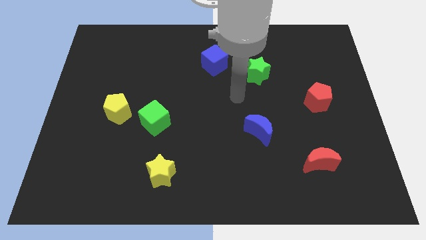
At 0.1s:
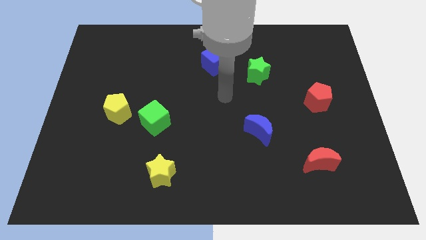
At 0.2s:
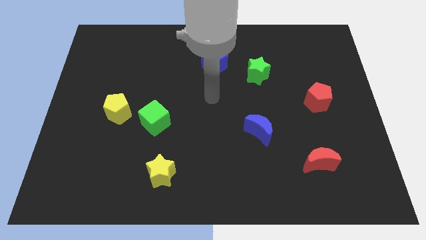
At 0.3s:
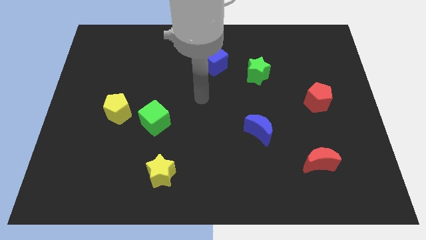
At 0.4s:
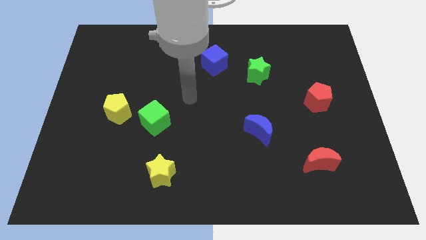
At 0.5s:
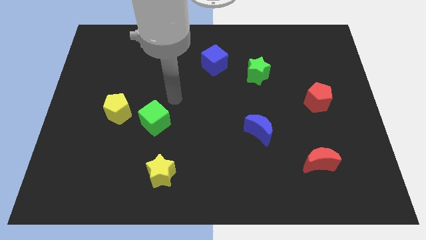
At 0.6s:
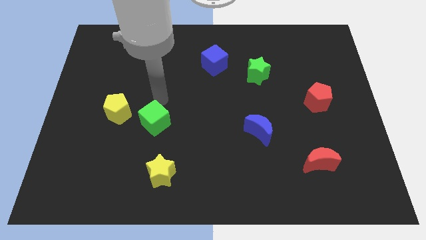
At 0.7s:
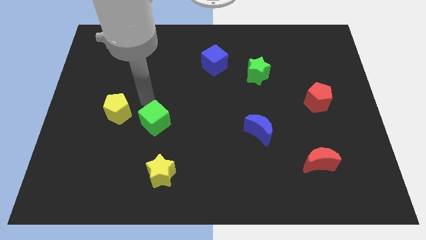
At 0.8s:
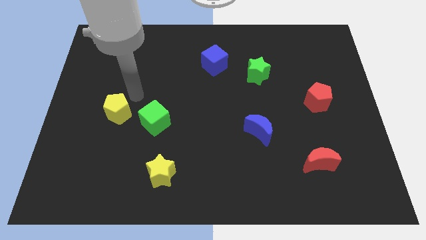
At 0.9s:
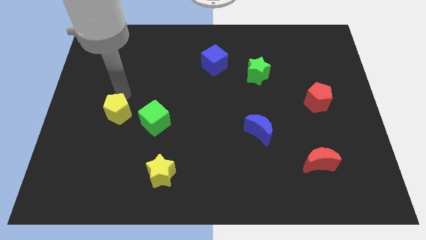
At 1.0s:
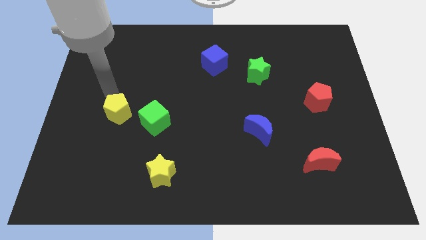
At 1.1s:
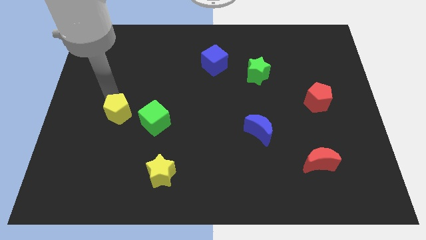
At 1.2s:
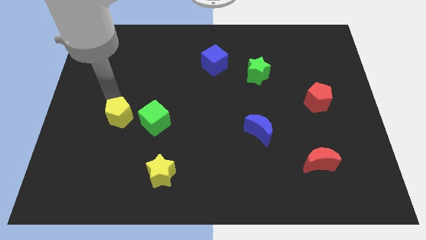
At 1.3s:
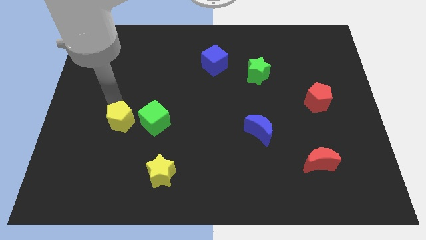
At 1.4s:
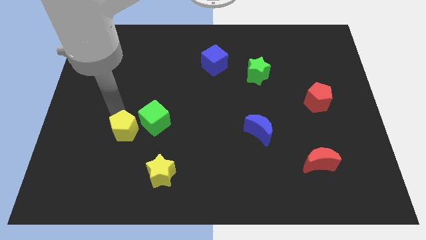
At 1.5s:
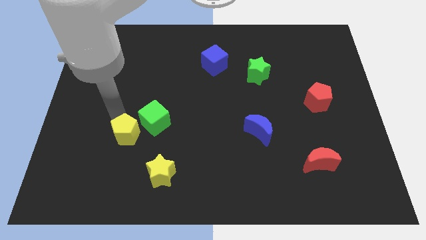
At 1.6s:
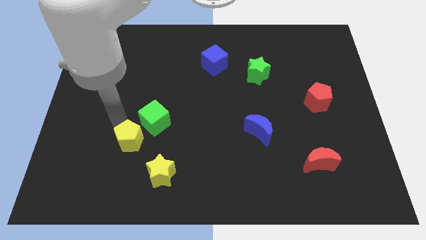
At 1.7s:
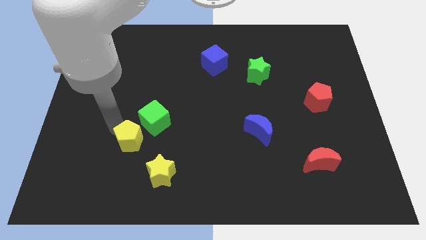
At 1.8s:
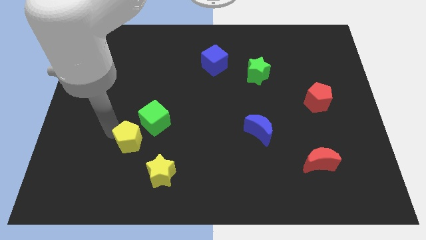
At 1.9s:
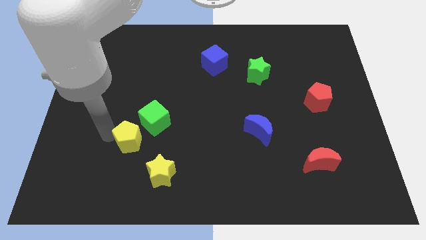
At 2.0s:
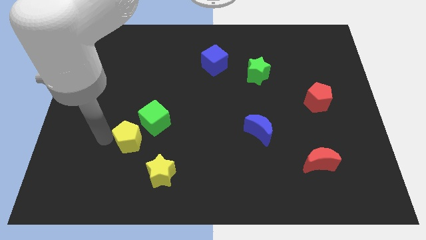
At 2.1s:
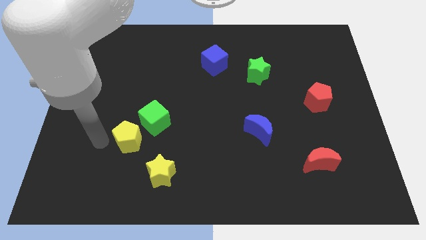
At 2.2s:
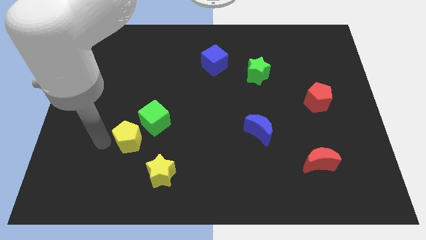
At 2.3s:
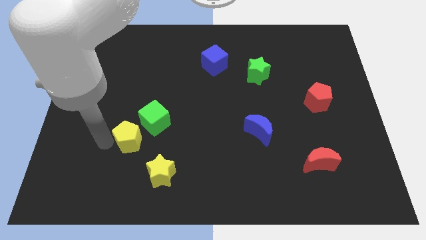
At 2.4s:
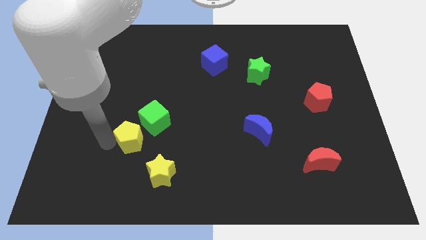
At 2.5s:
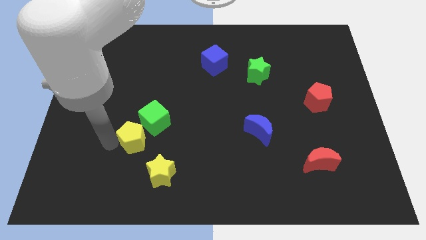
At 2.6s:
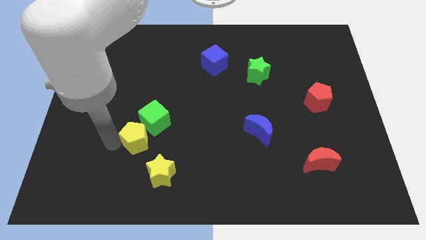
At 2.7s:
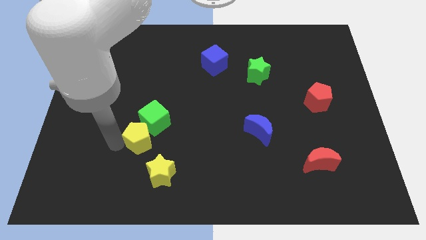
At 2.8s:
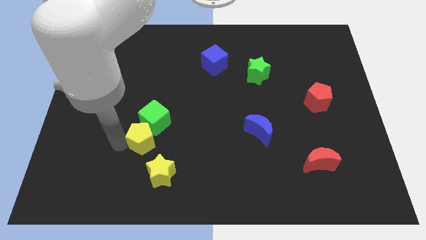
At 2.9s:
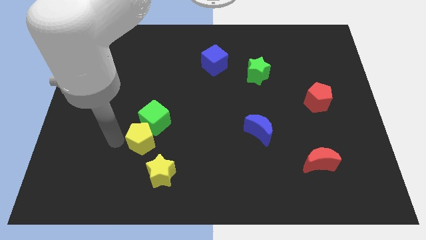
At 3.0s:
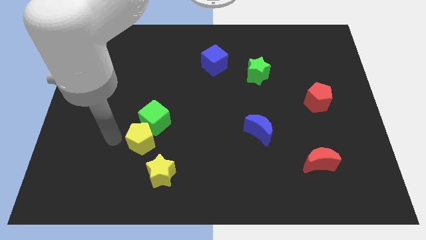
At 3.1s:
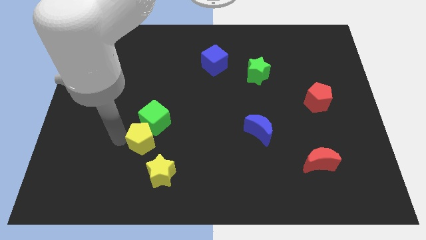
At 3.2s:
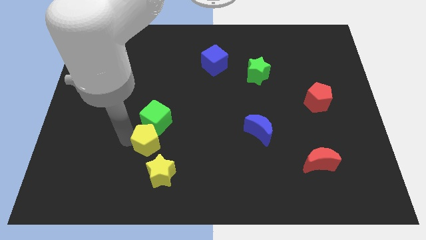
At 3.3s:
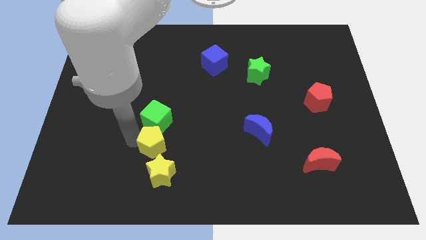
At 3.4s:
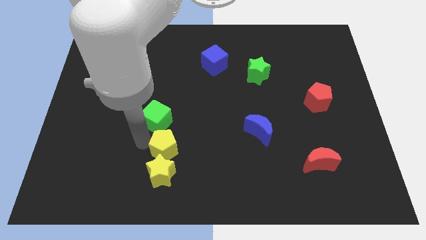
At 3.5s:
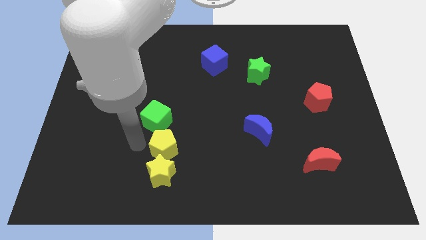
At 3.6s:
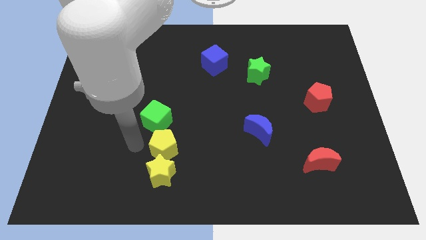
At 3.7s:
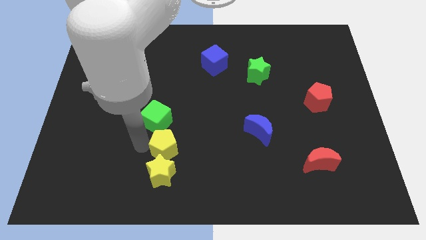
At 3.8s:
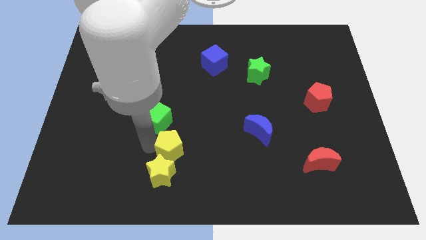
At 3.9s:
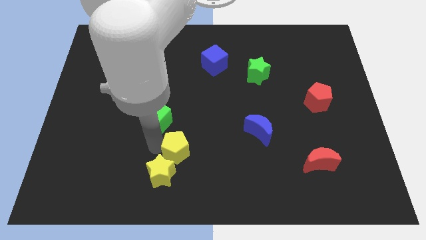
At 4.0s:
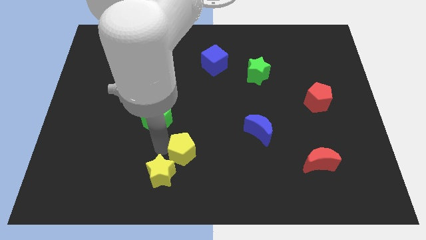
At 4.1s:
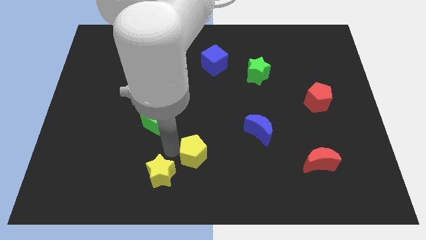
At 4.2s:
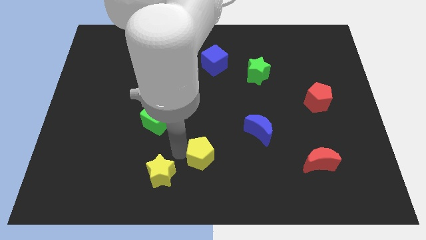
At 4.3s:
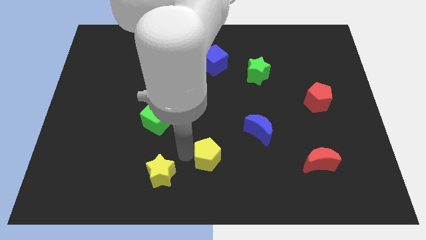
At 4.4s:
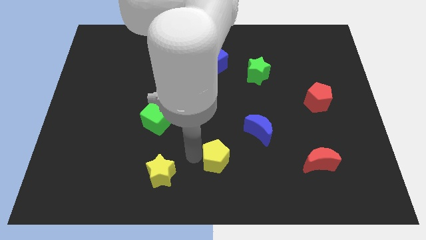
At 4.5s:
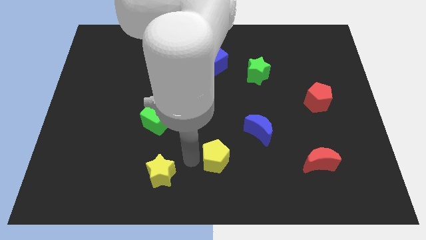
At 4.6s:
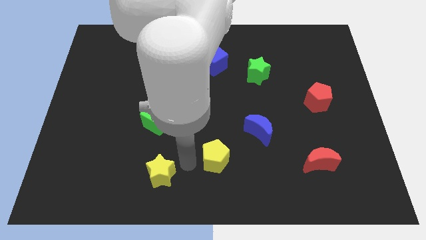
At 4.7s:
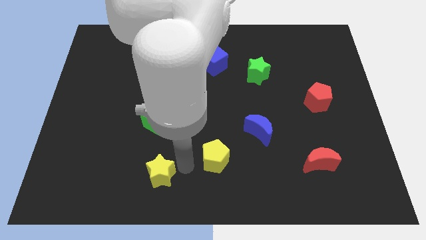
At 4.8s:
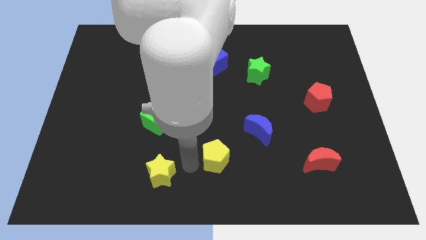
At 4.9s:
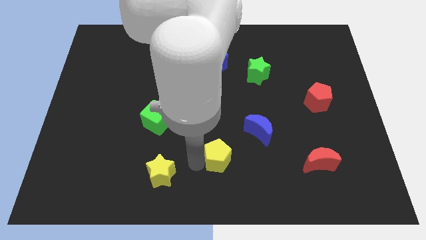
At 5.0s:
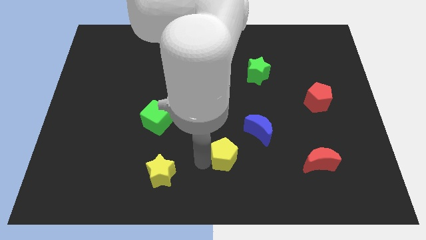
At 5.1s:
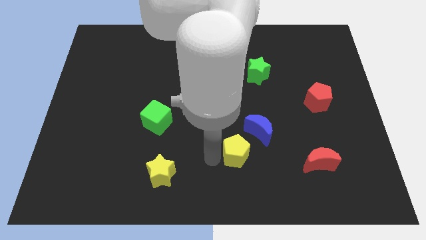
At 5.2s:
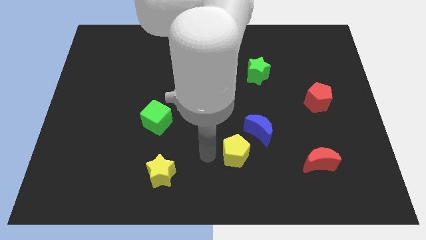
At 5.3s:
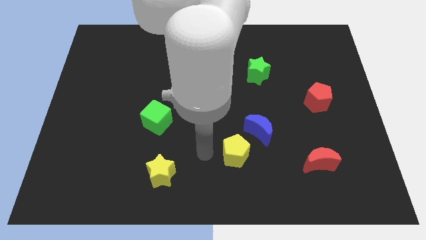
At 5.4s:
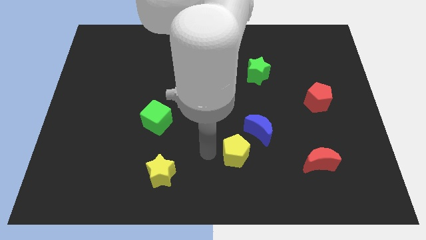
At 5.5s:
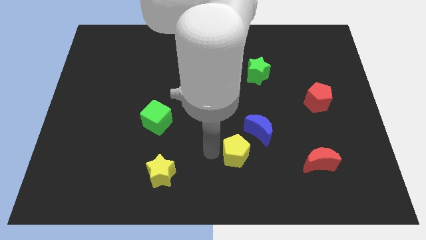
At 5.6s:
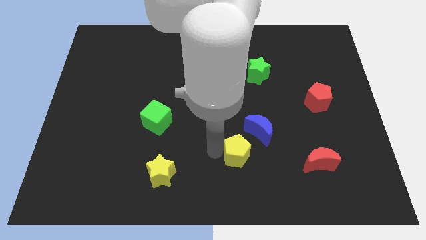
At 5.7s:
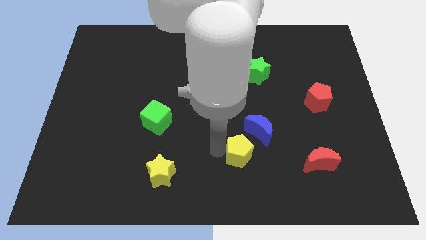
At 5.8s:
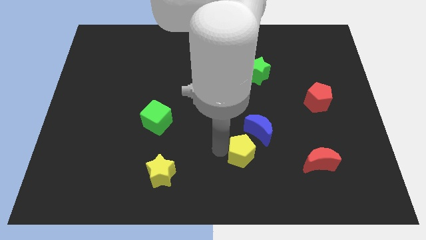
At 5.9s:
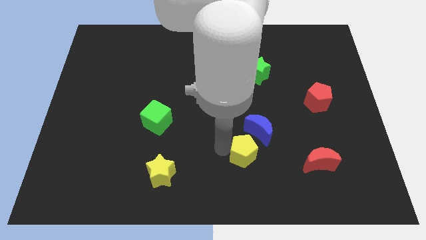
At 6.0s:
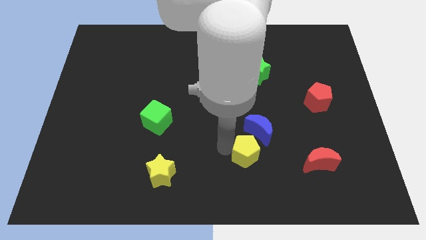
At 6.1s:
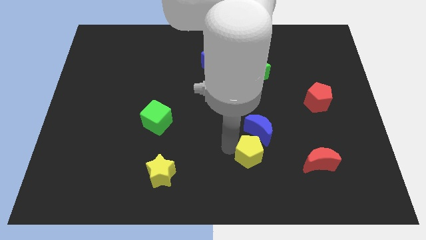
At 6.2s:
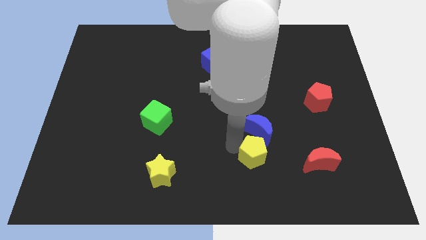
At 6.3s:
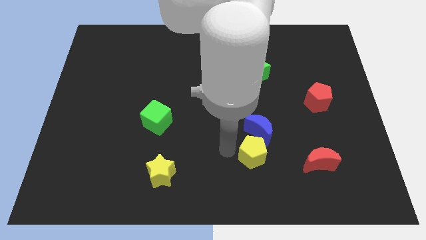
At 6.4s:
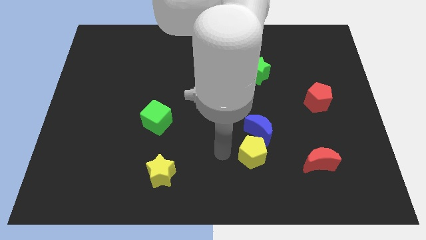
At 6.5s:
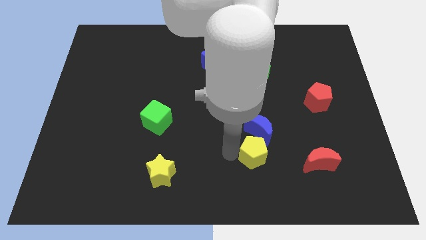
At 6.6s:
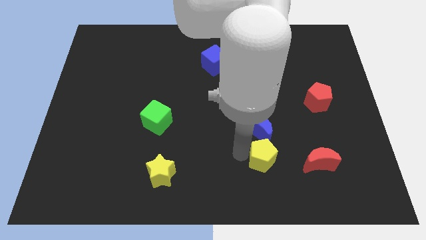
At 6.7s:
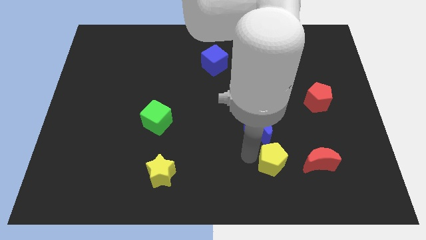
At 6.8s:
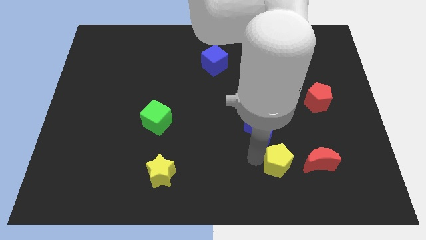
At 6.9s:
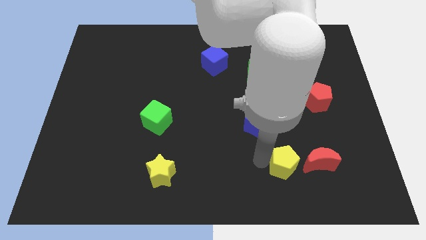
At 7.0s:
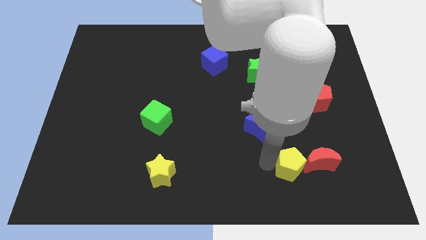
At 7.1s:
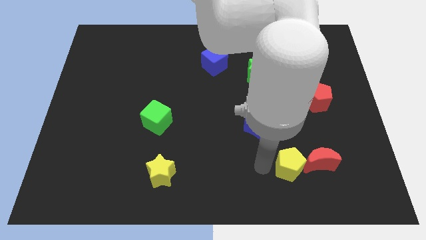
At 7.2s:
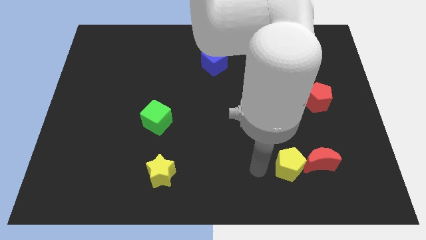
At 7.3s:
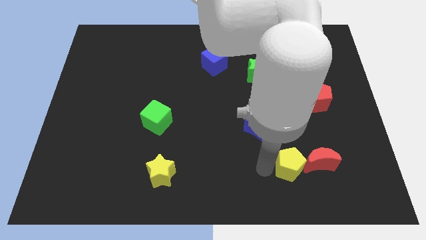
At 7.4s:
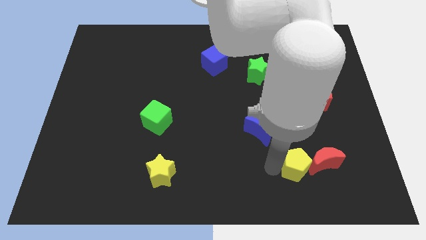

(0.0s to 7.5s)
move the yellow pentagon to the red moon

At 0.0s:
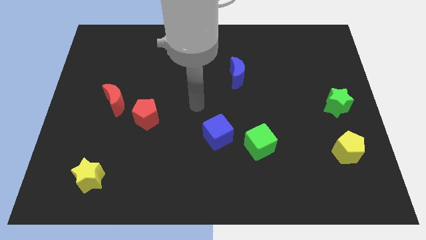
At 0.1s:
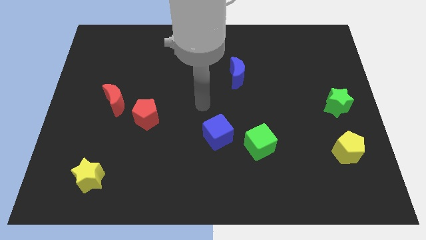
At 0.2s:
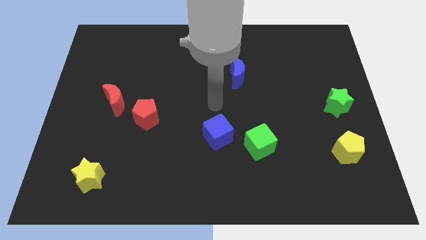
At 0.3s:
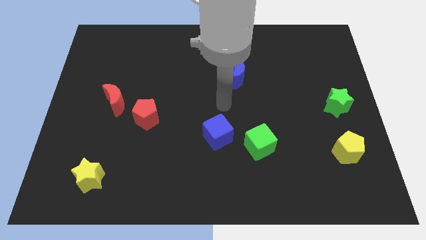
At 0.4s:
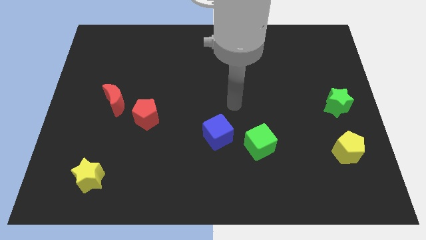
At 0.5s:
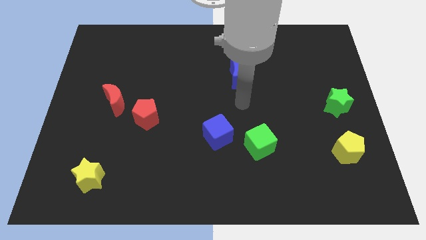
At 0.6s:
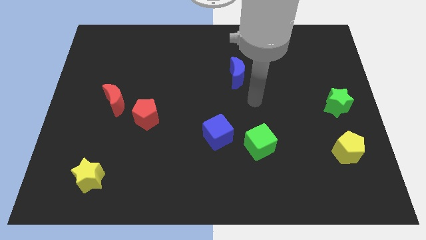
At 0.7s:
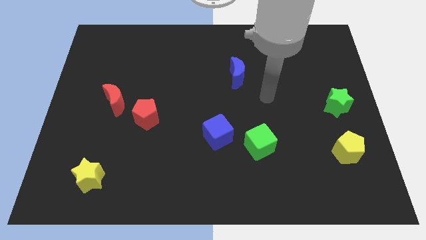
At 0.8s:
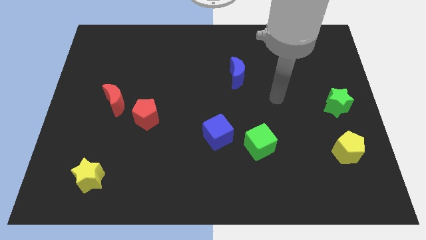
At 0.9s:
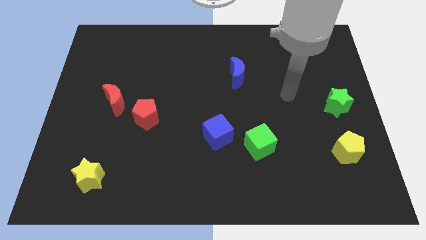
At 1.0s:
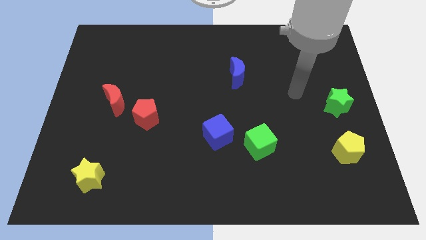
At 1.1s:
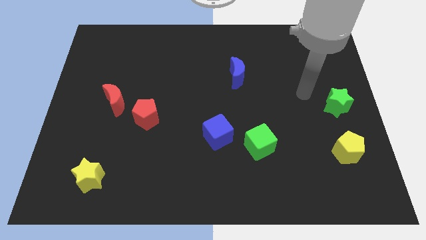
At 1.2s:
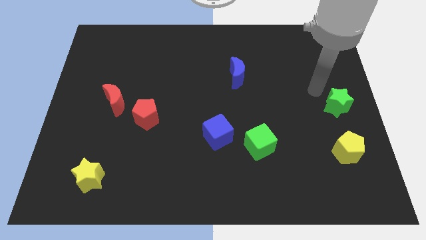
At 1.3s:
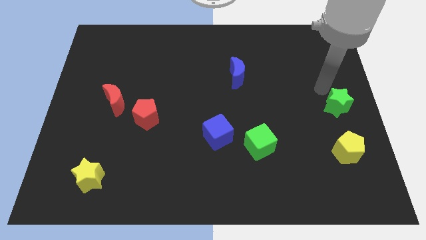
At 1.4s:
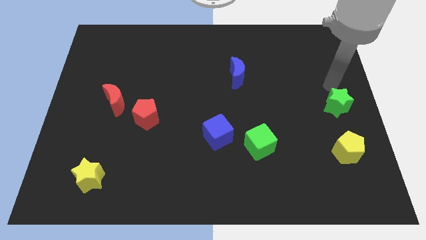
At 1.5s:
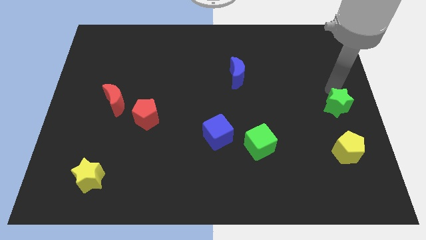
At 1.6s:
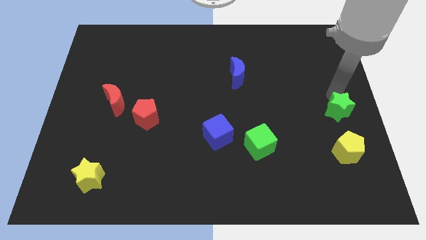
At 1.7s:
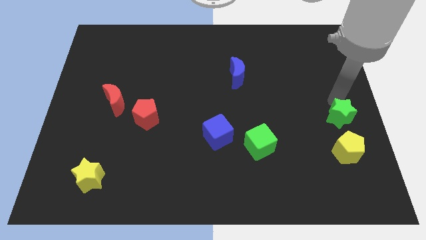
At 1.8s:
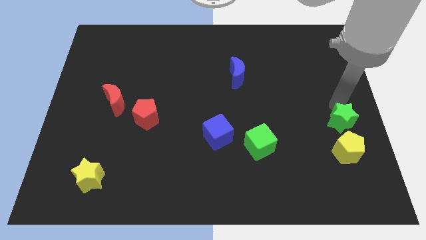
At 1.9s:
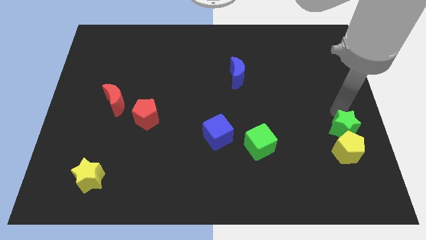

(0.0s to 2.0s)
push the green star towards the yellow pentagon
